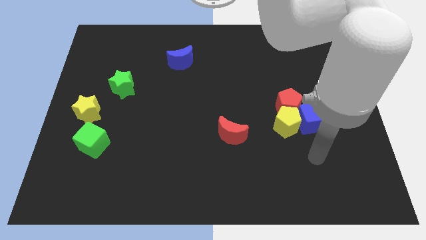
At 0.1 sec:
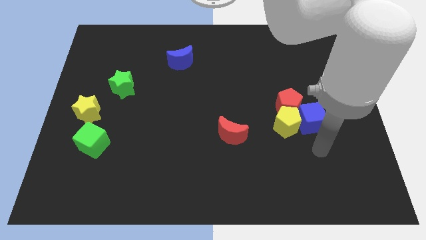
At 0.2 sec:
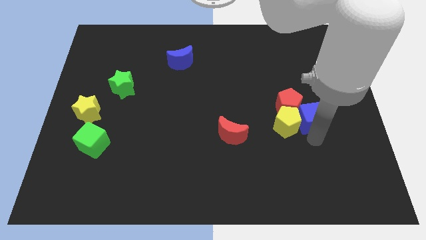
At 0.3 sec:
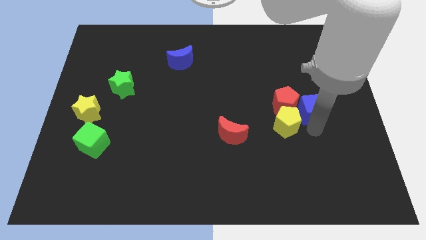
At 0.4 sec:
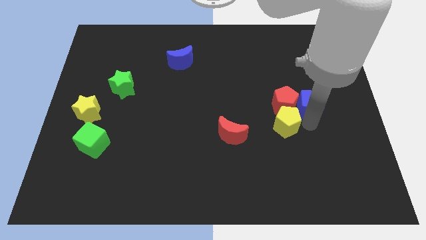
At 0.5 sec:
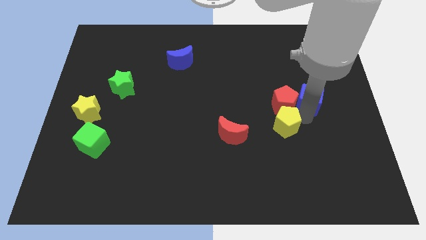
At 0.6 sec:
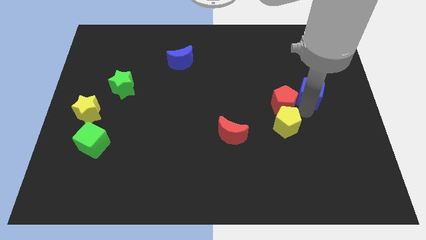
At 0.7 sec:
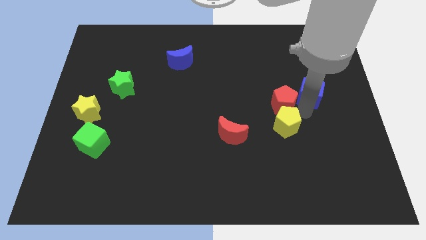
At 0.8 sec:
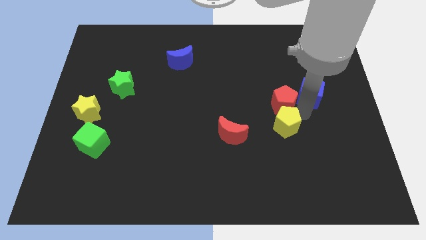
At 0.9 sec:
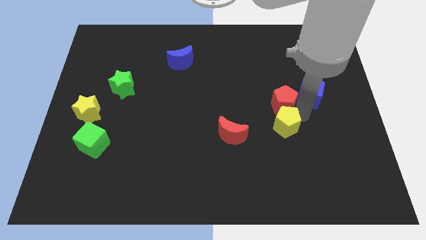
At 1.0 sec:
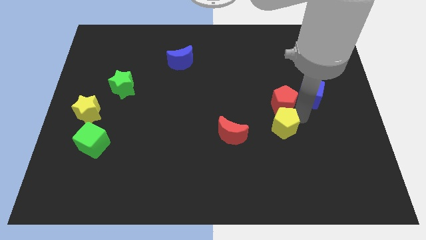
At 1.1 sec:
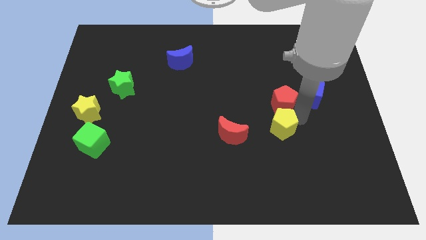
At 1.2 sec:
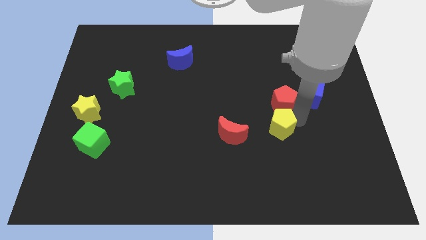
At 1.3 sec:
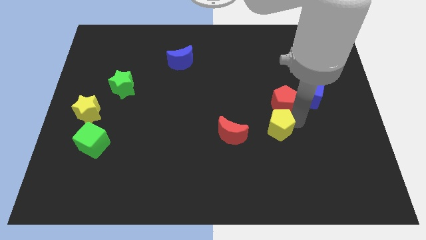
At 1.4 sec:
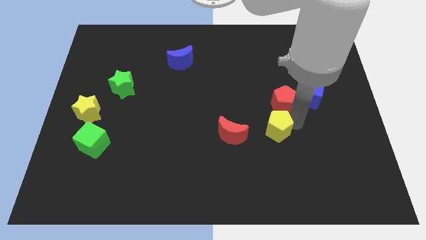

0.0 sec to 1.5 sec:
pull the yellow pentagon apart from the red pentagon and blue cube

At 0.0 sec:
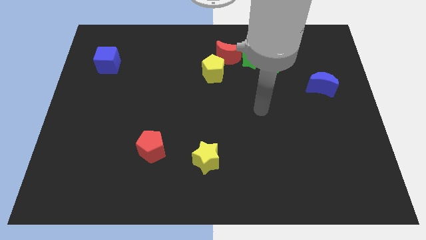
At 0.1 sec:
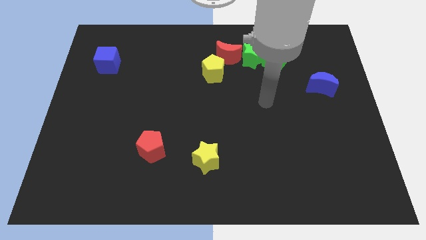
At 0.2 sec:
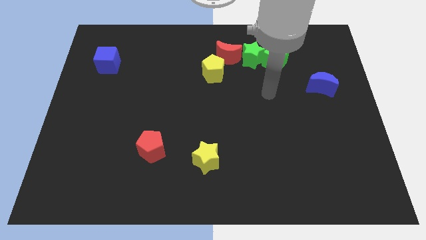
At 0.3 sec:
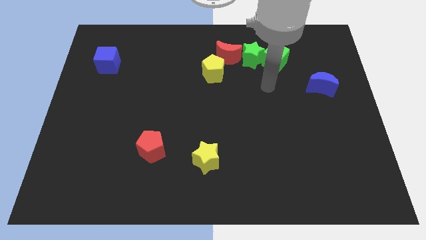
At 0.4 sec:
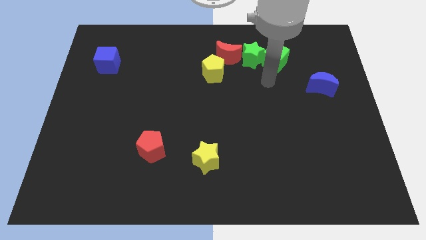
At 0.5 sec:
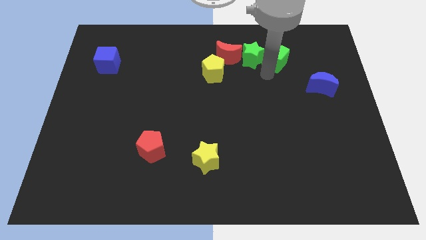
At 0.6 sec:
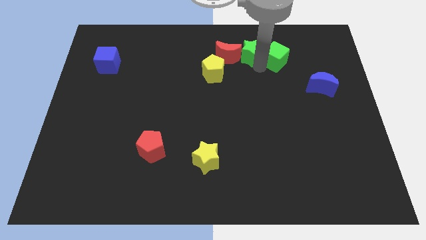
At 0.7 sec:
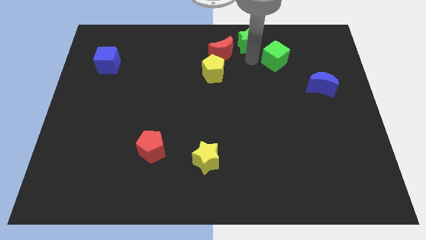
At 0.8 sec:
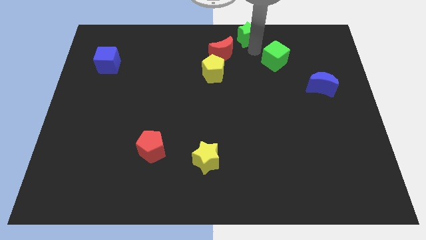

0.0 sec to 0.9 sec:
pull the green cube apart from the green star

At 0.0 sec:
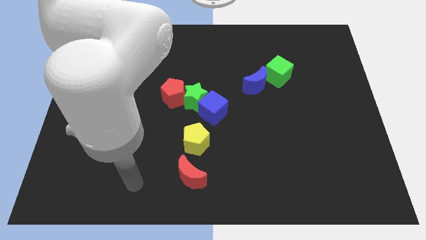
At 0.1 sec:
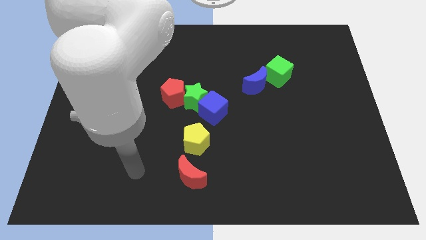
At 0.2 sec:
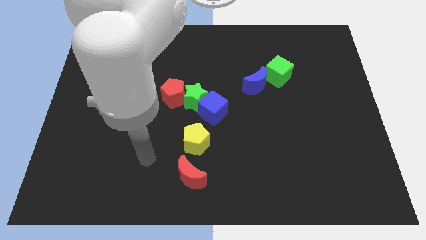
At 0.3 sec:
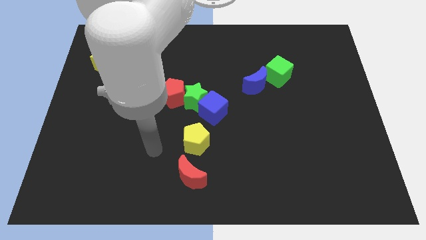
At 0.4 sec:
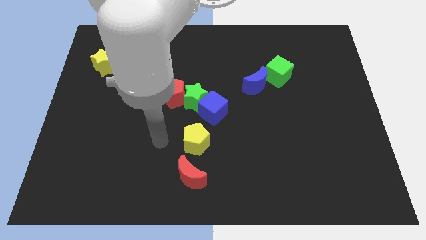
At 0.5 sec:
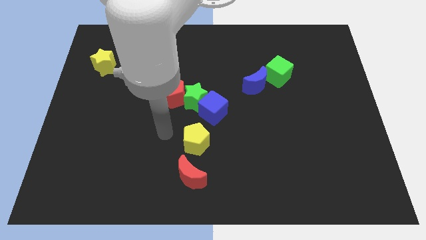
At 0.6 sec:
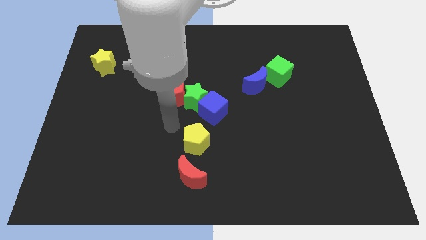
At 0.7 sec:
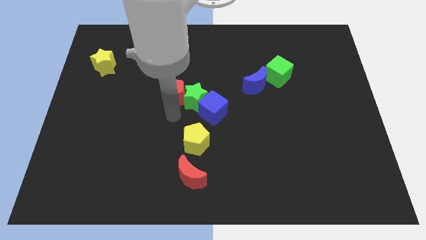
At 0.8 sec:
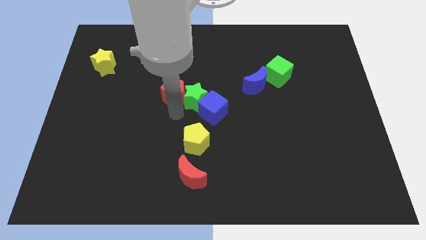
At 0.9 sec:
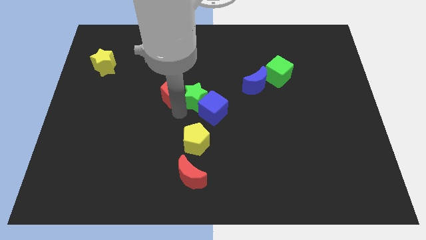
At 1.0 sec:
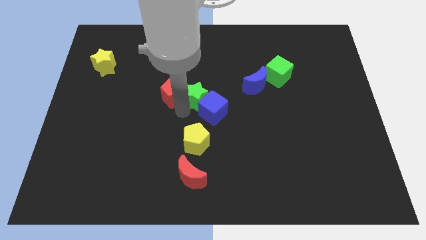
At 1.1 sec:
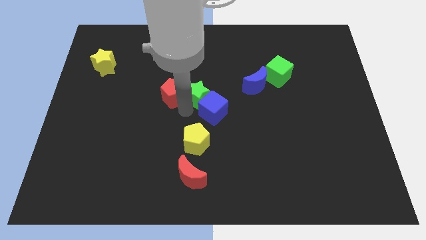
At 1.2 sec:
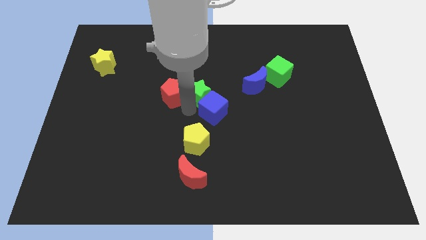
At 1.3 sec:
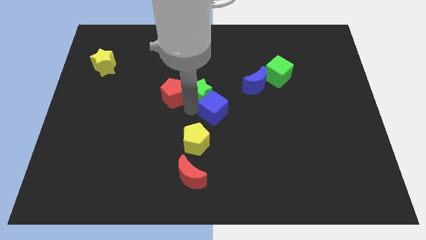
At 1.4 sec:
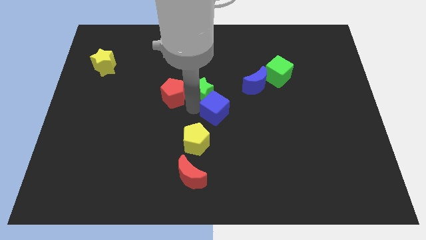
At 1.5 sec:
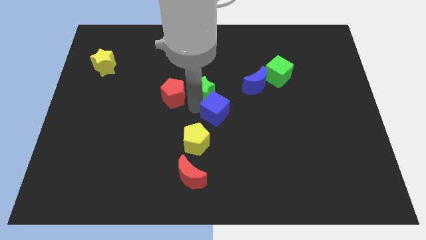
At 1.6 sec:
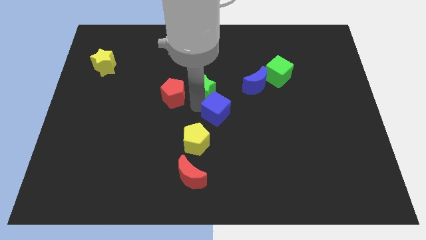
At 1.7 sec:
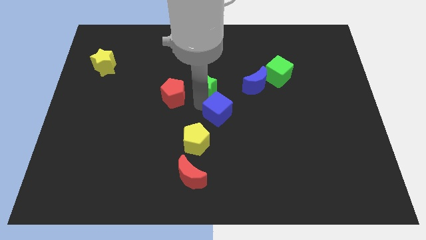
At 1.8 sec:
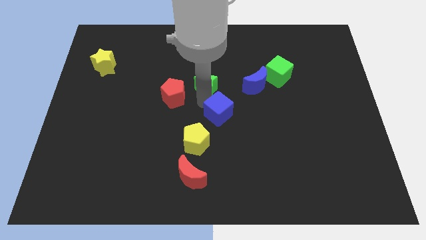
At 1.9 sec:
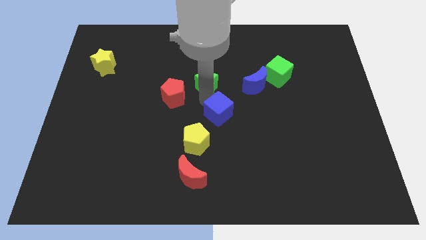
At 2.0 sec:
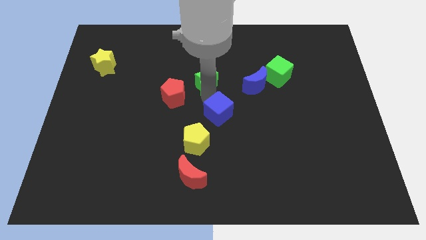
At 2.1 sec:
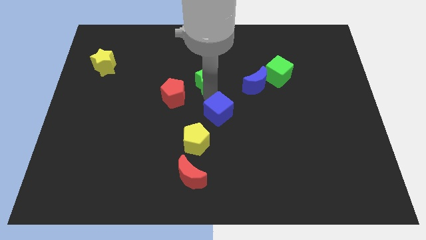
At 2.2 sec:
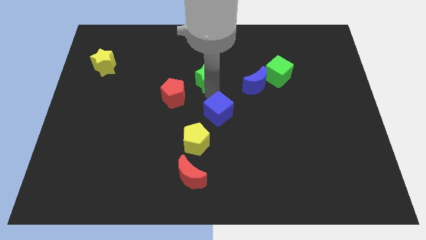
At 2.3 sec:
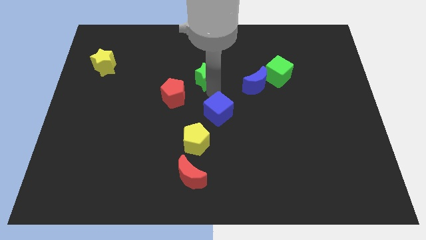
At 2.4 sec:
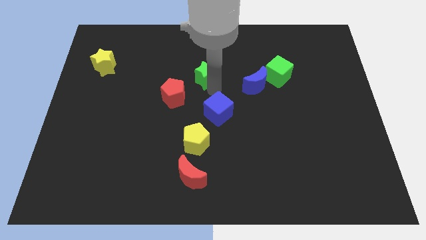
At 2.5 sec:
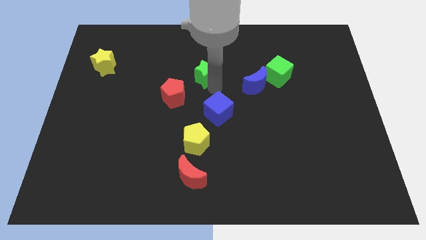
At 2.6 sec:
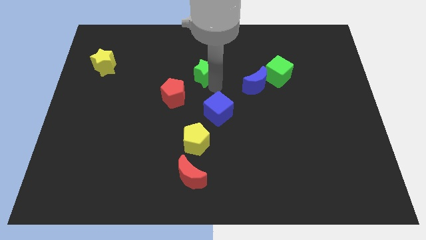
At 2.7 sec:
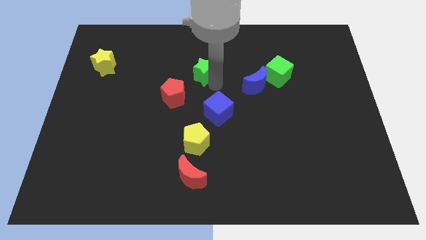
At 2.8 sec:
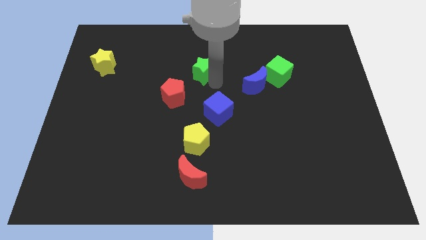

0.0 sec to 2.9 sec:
move the green star away from the blue cube and red pentagon

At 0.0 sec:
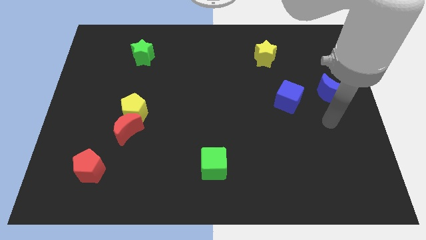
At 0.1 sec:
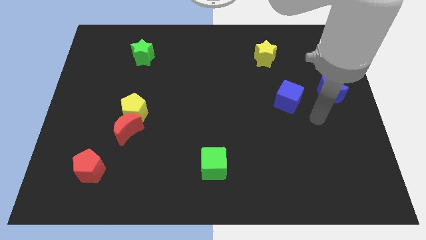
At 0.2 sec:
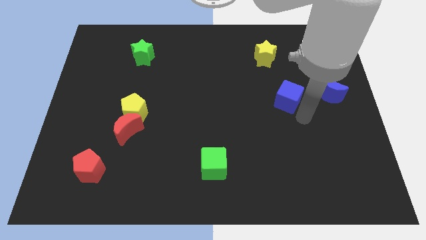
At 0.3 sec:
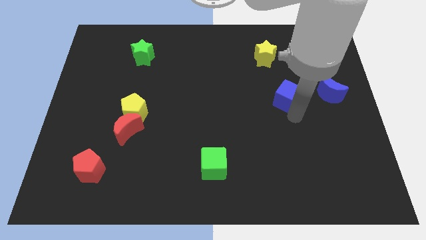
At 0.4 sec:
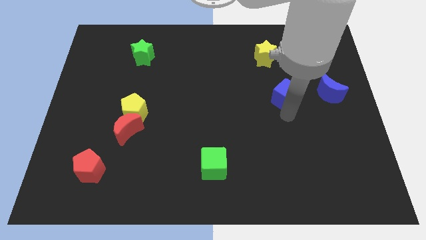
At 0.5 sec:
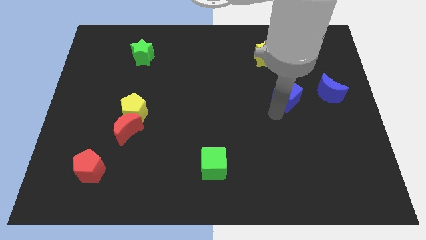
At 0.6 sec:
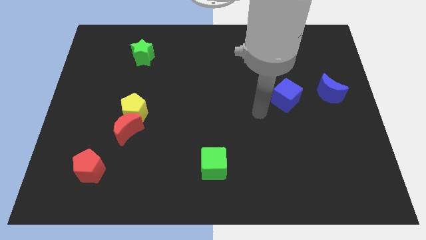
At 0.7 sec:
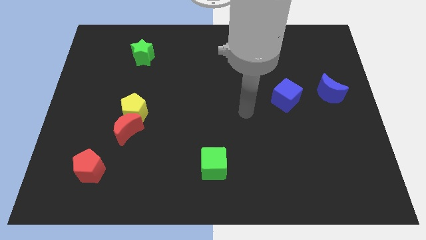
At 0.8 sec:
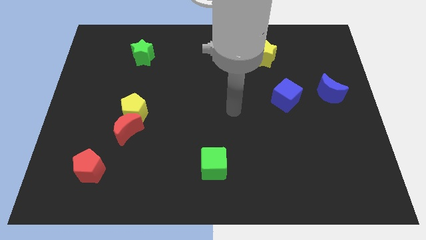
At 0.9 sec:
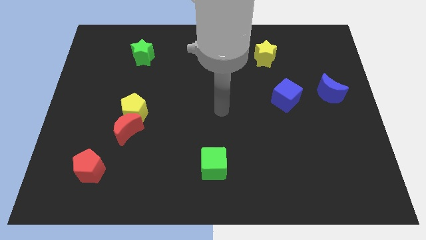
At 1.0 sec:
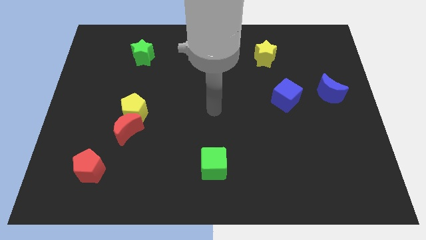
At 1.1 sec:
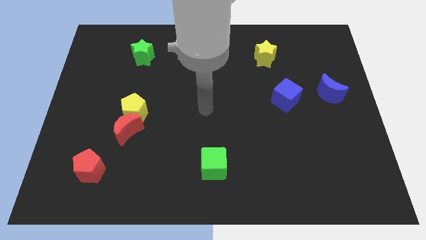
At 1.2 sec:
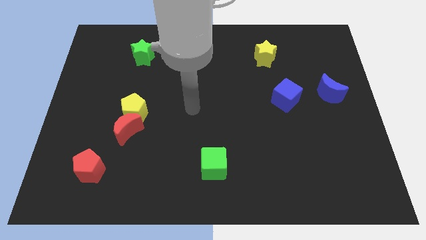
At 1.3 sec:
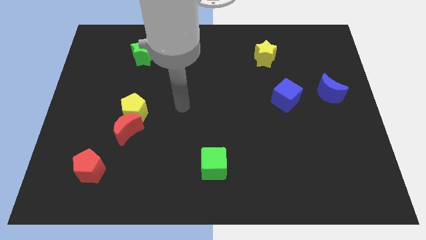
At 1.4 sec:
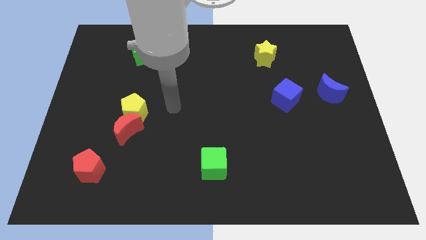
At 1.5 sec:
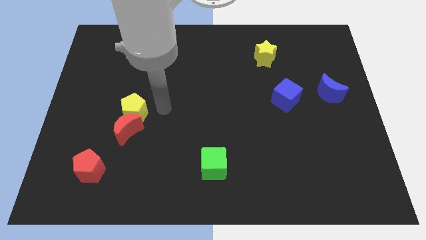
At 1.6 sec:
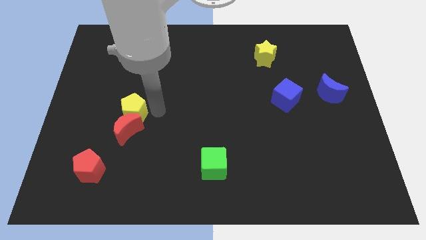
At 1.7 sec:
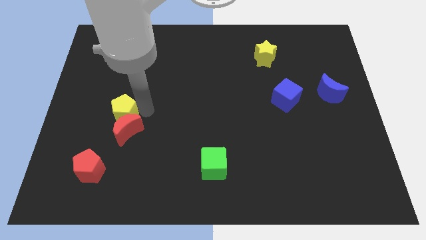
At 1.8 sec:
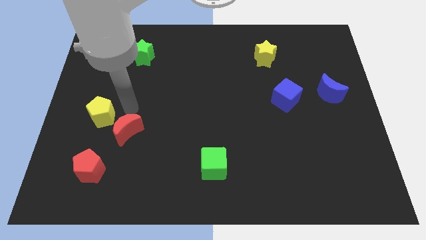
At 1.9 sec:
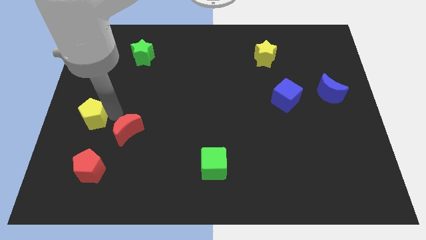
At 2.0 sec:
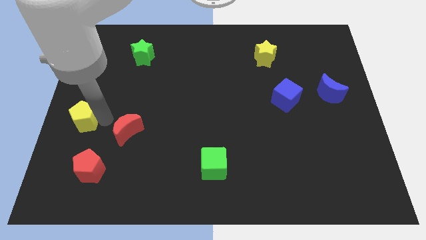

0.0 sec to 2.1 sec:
move the red moon away from the yellow pentagon

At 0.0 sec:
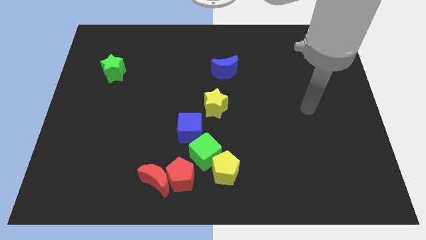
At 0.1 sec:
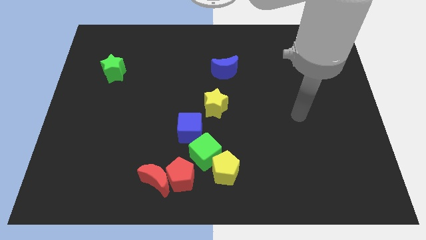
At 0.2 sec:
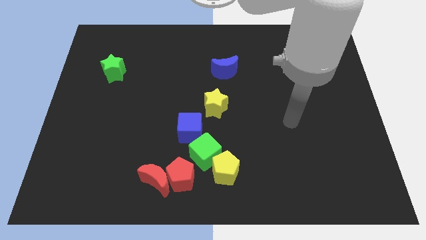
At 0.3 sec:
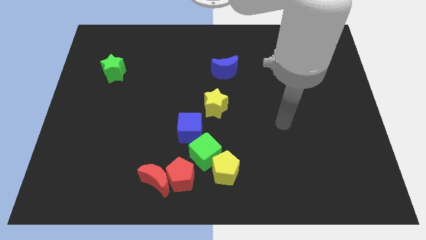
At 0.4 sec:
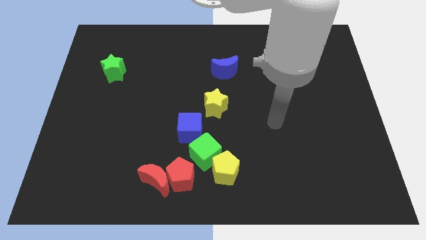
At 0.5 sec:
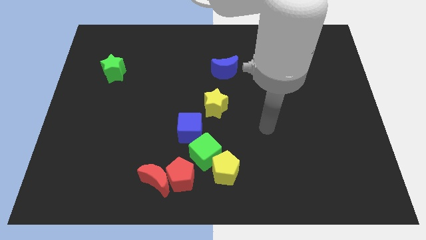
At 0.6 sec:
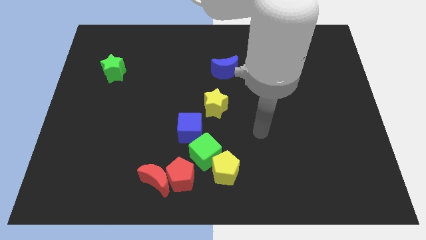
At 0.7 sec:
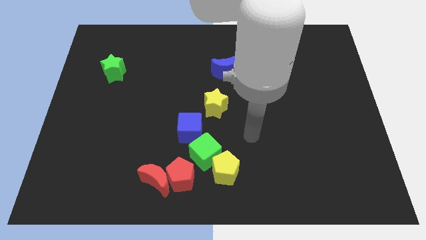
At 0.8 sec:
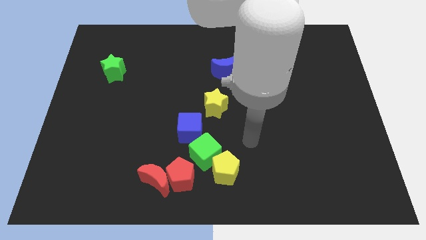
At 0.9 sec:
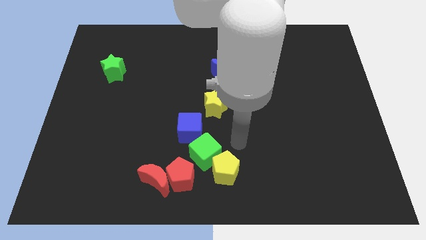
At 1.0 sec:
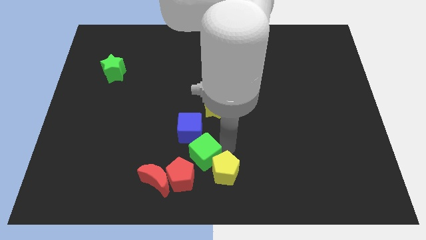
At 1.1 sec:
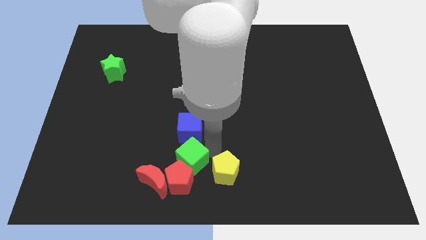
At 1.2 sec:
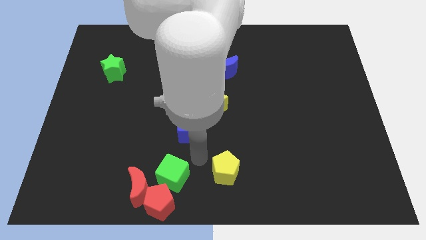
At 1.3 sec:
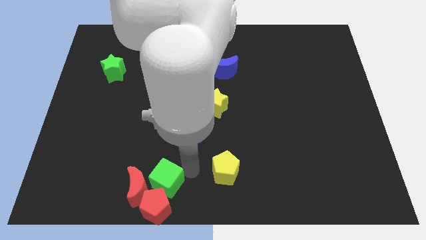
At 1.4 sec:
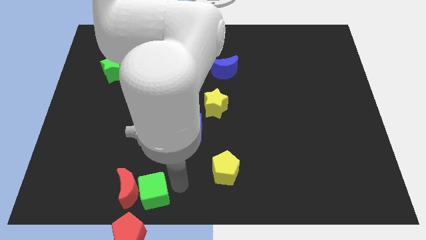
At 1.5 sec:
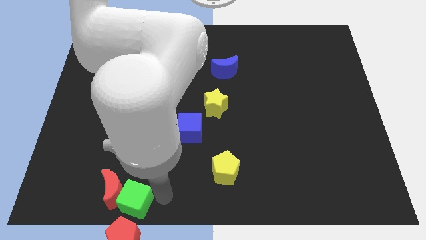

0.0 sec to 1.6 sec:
move the red moon away from the red pentagon

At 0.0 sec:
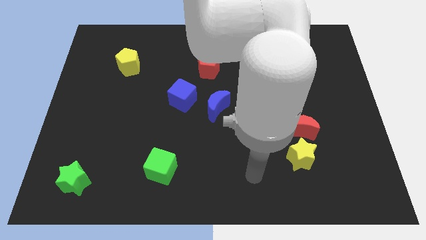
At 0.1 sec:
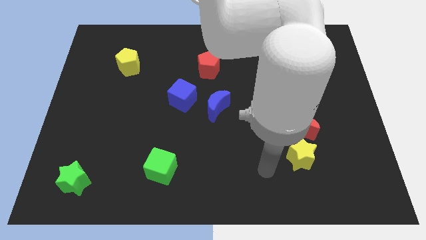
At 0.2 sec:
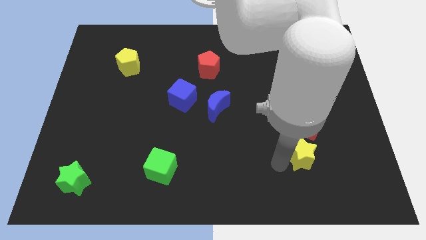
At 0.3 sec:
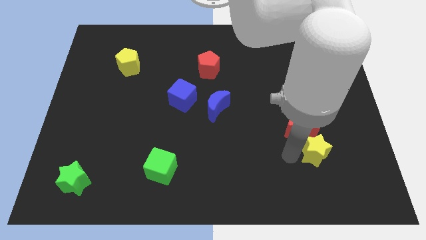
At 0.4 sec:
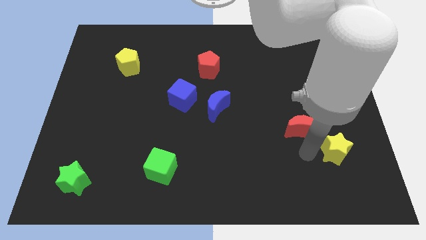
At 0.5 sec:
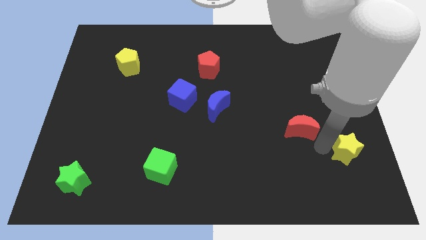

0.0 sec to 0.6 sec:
pull the red moon apart from the yellow star
